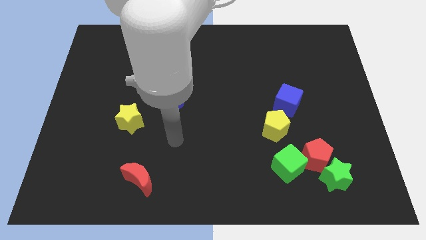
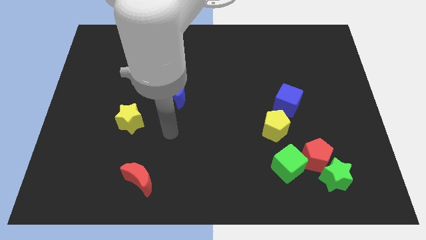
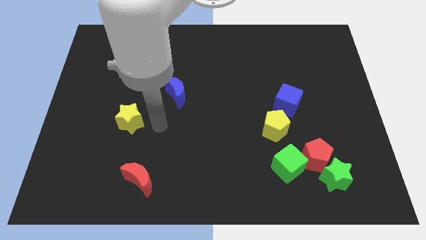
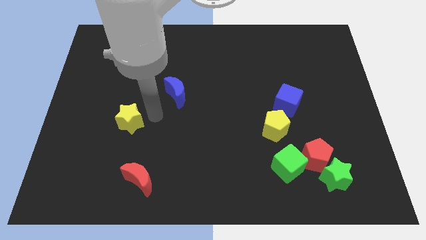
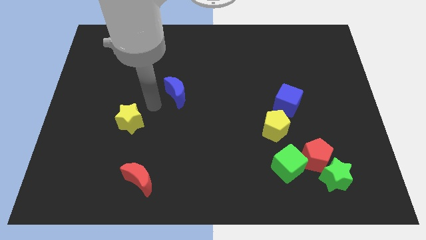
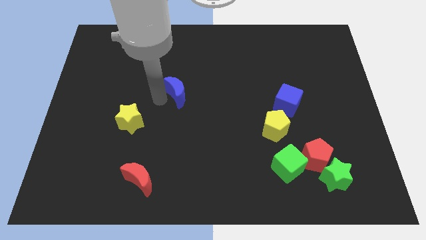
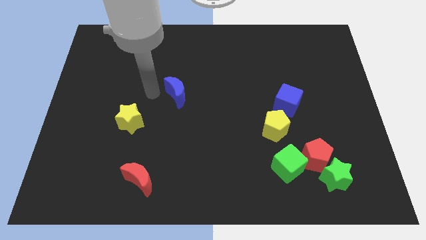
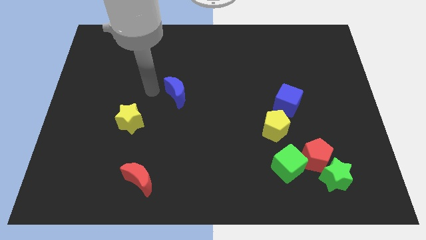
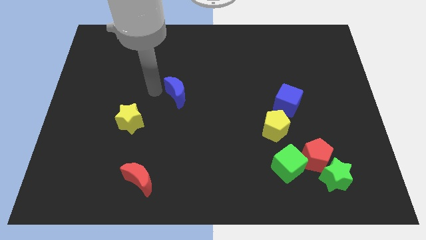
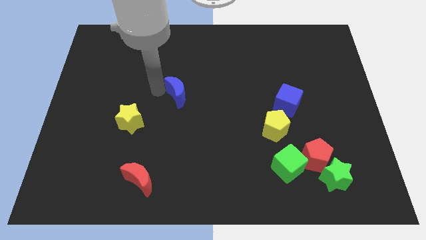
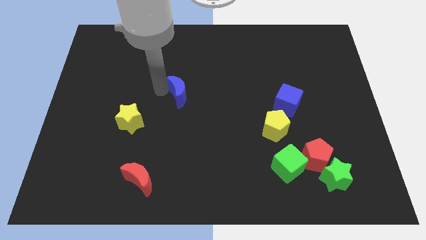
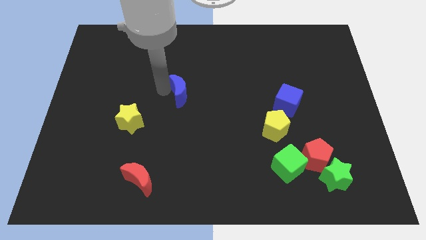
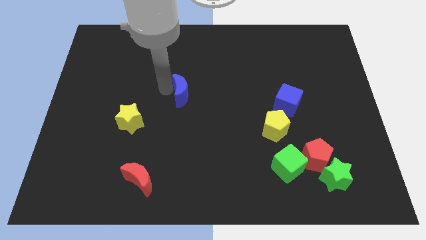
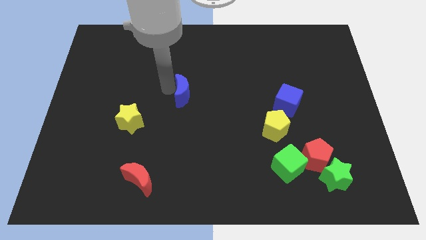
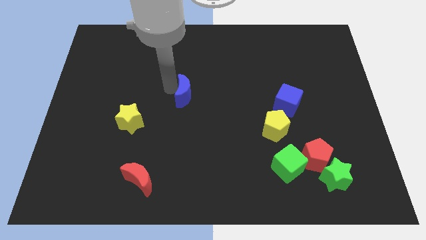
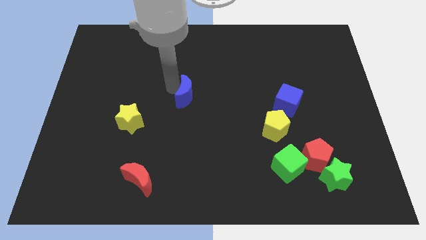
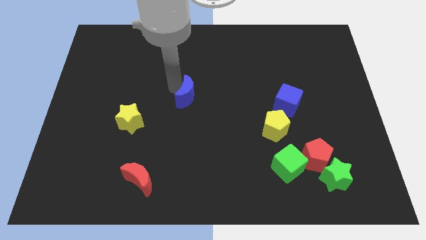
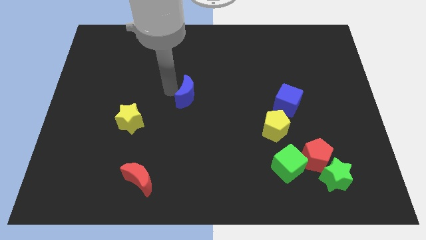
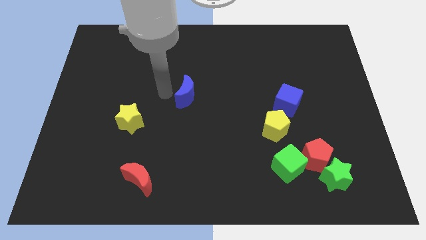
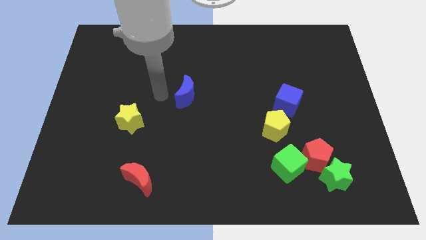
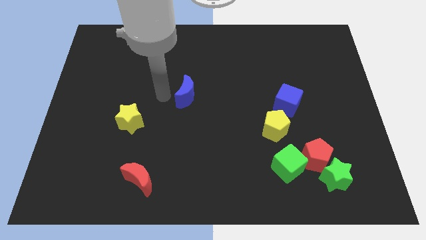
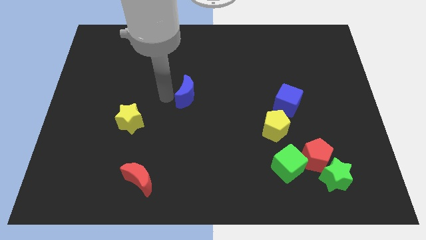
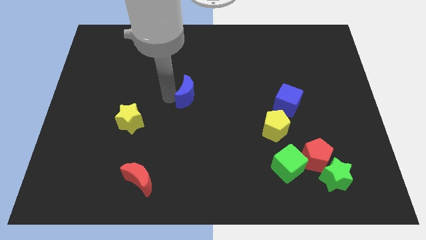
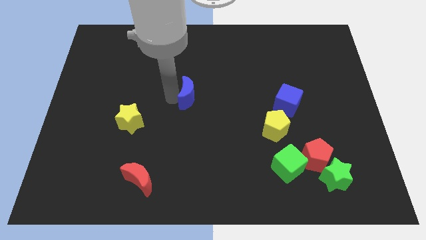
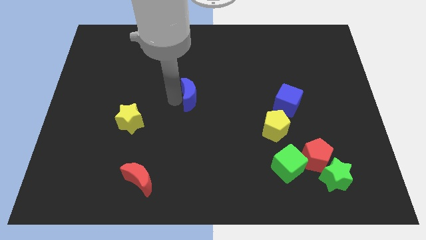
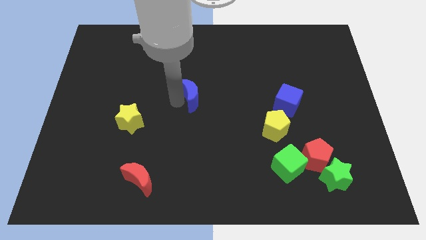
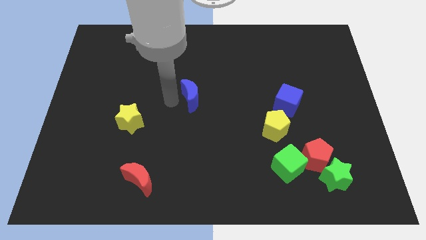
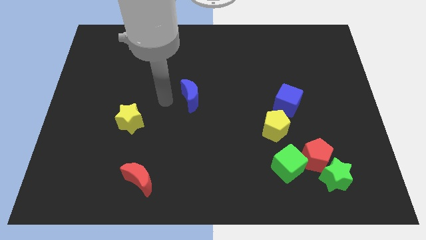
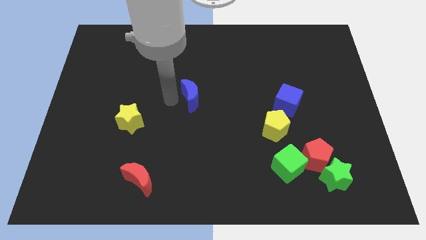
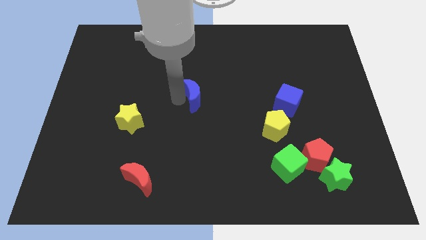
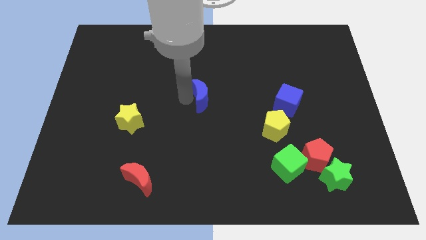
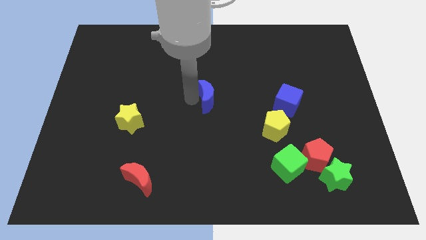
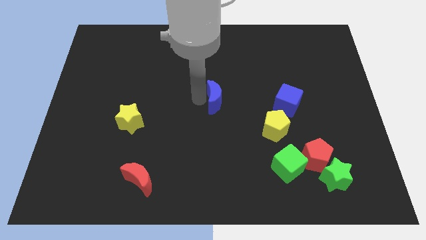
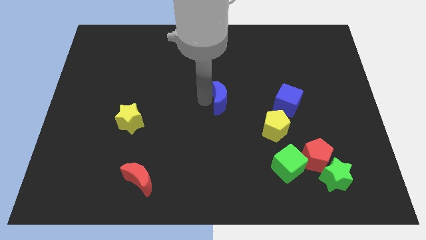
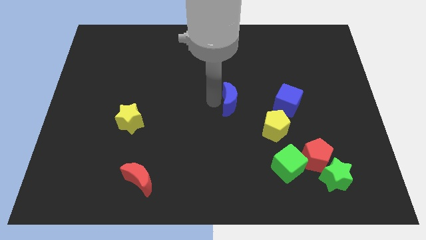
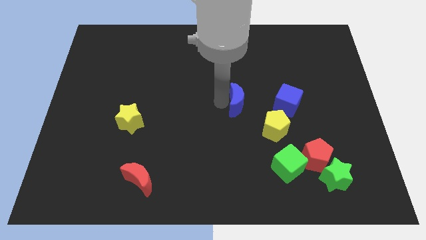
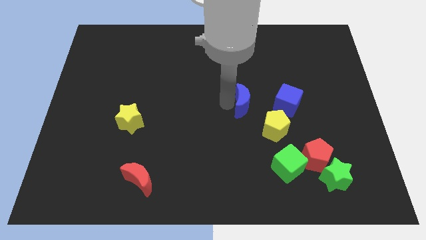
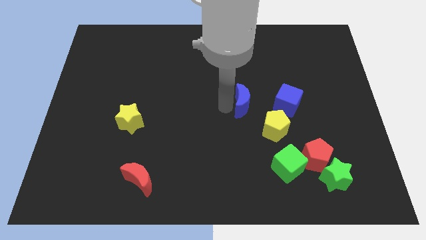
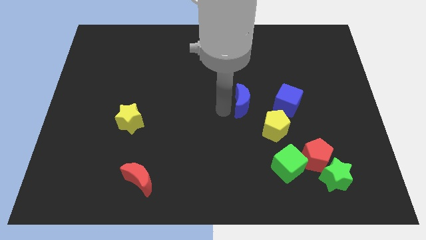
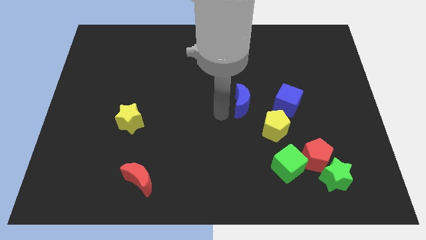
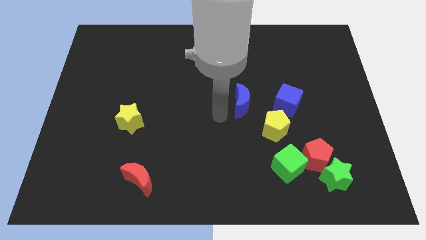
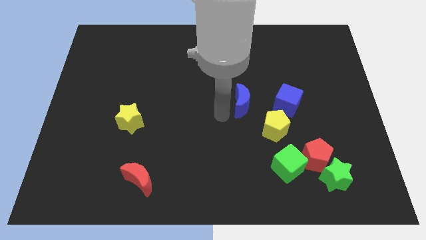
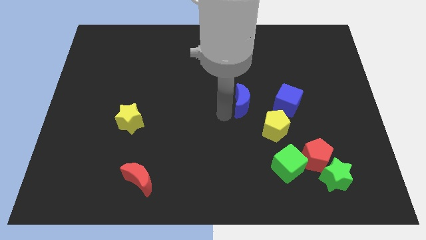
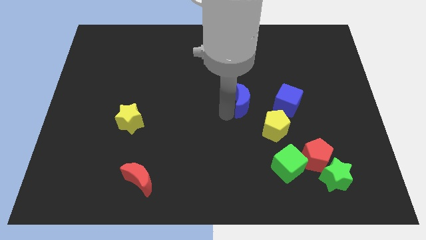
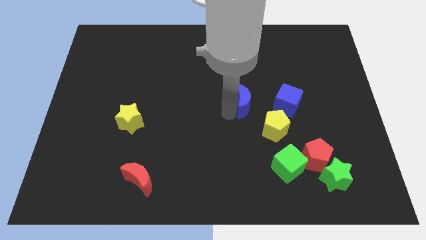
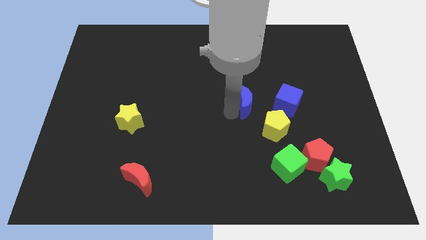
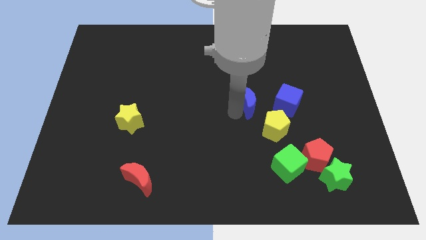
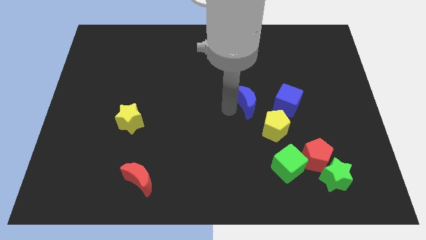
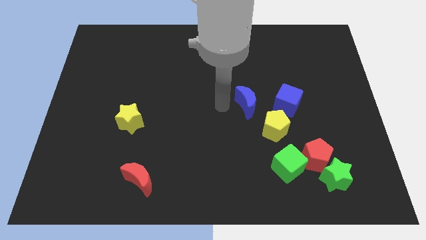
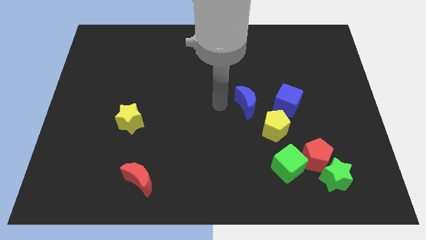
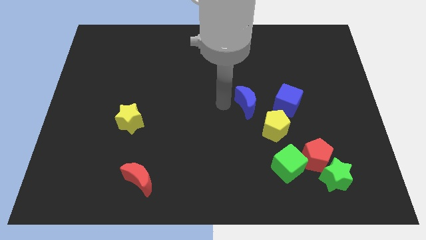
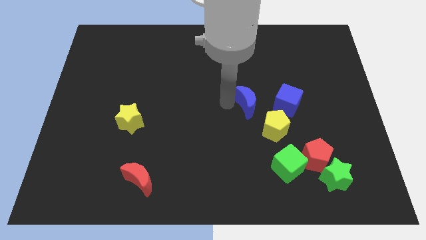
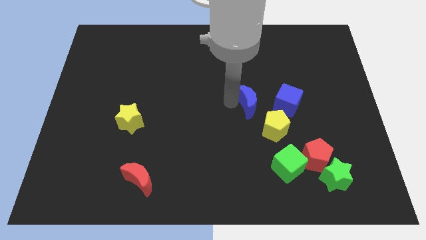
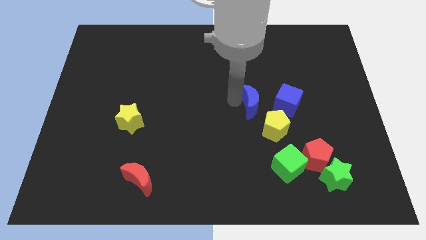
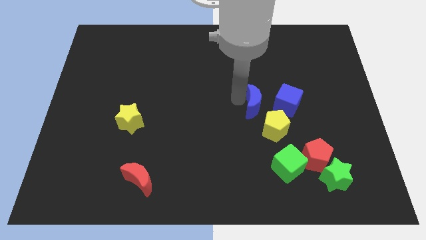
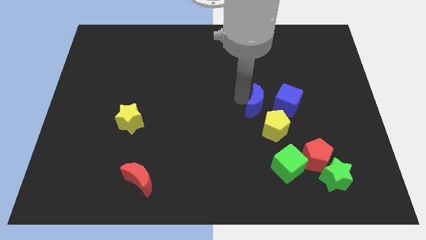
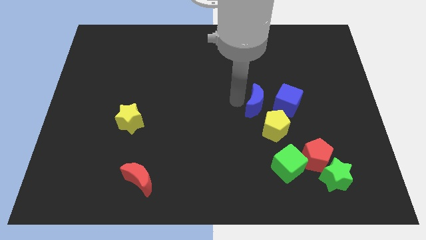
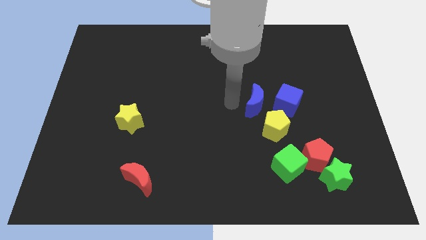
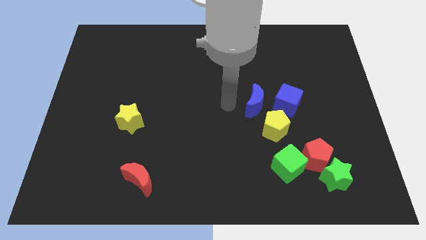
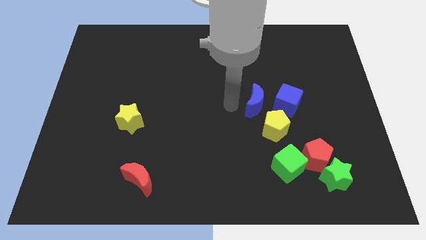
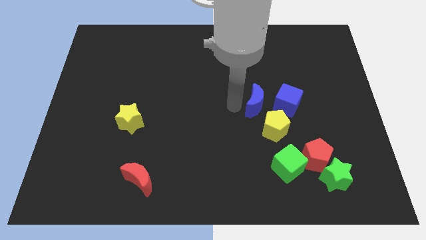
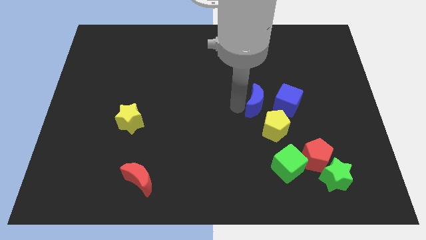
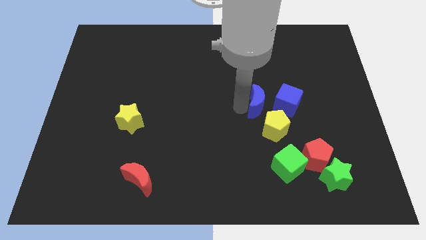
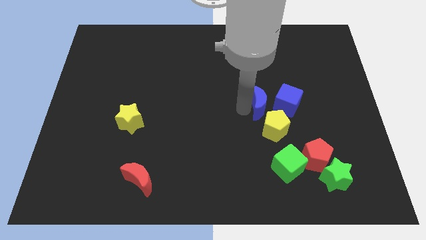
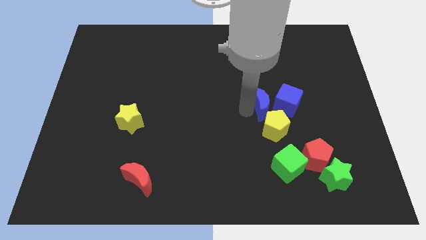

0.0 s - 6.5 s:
move the blue moon close to the blue cube
